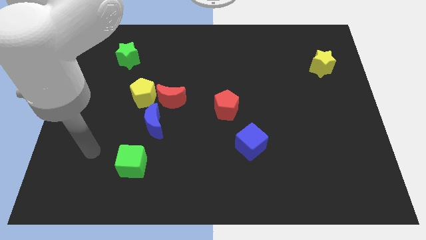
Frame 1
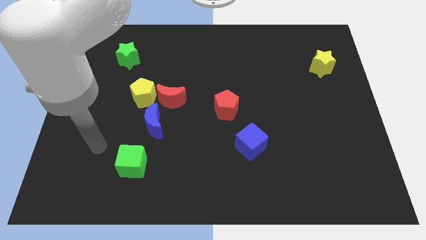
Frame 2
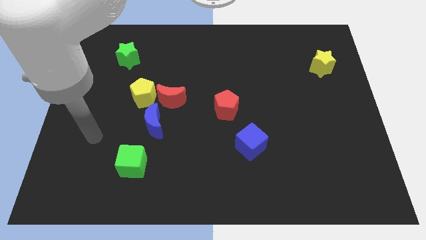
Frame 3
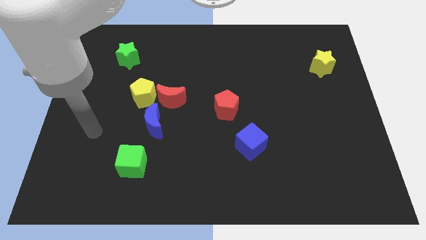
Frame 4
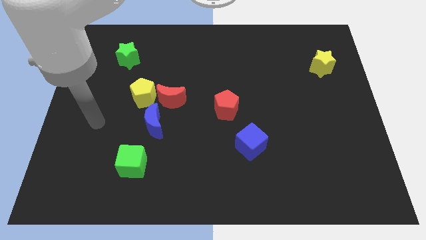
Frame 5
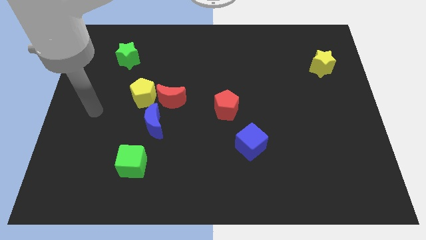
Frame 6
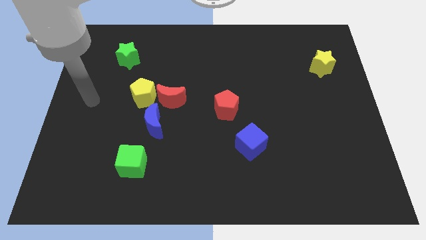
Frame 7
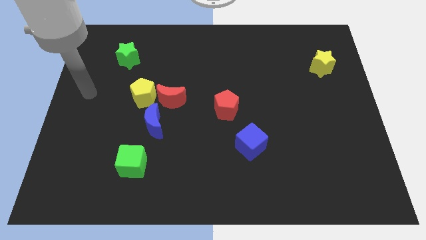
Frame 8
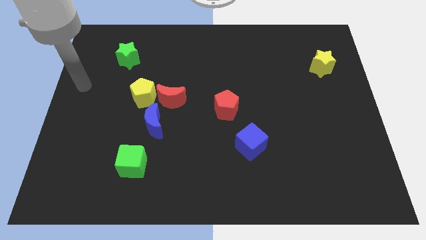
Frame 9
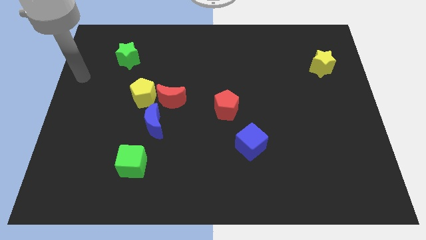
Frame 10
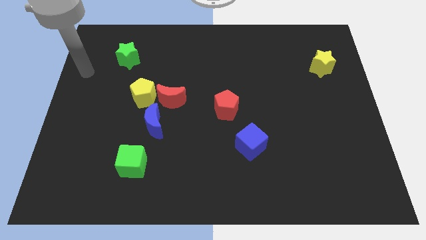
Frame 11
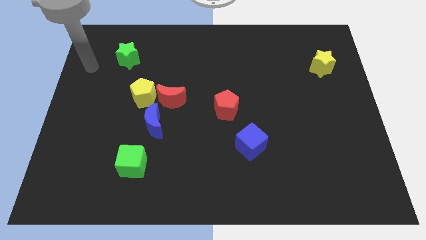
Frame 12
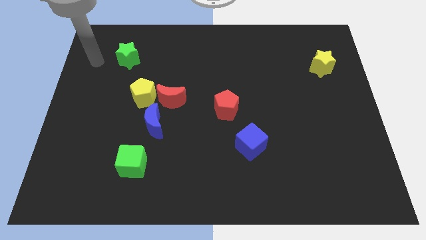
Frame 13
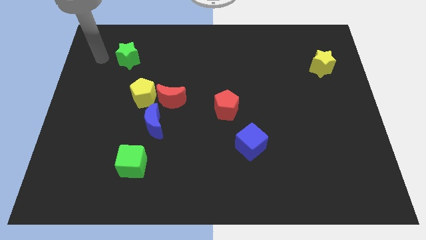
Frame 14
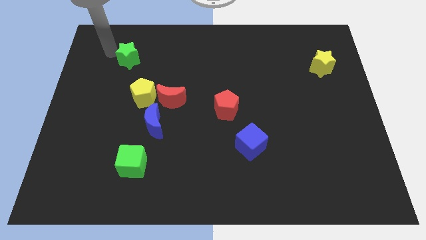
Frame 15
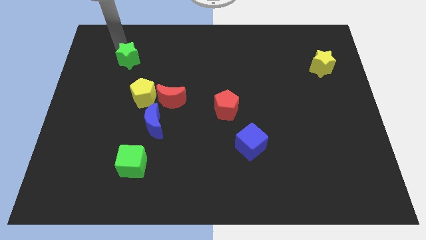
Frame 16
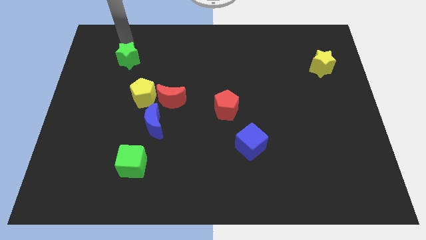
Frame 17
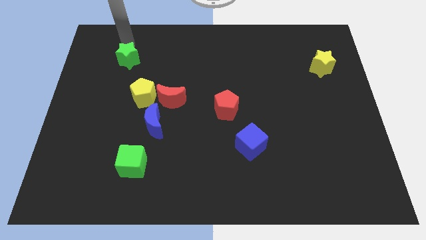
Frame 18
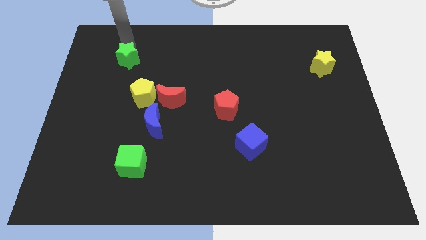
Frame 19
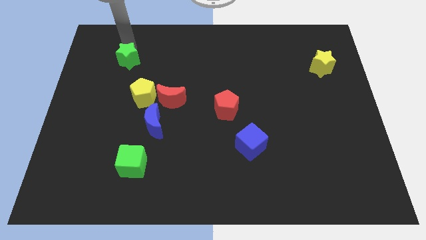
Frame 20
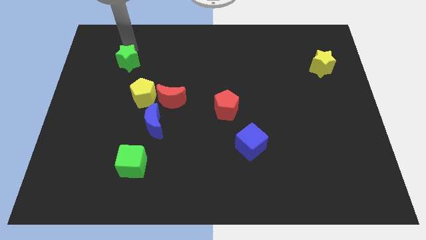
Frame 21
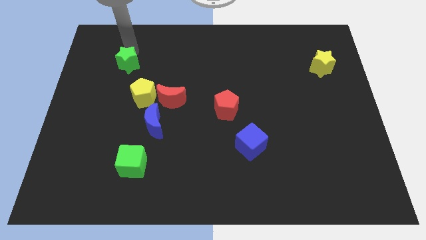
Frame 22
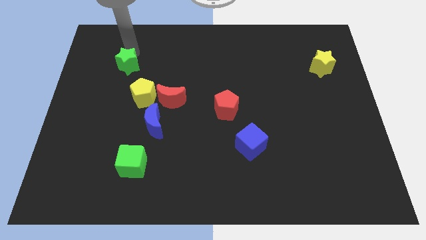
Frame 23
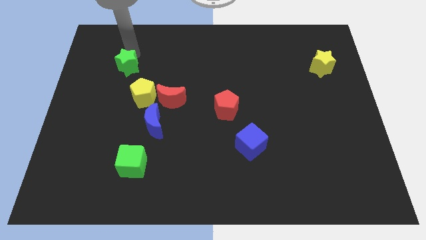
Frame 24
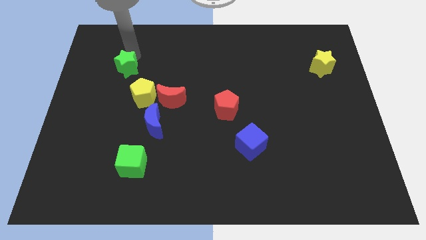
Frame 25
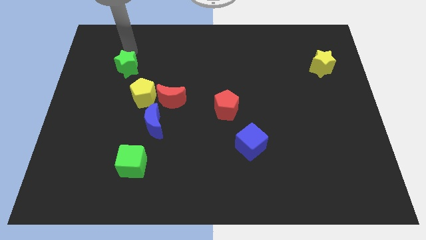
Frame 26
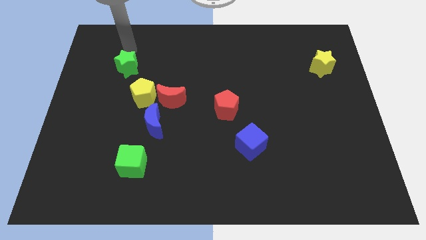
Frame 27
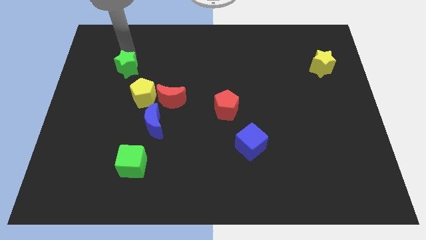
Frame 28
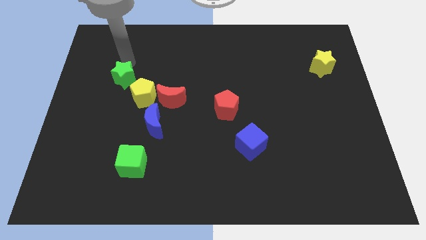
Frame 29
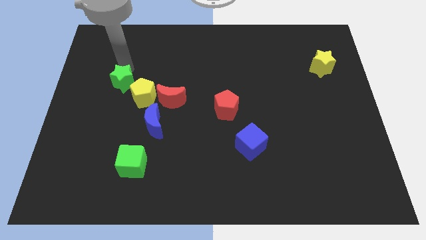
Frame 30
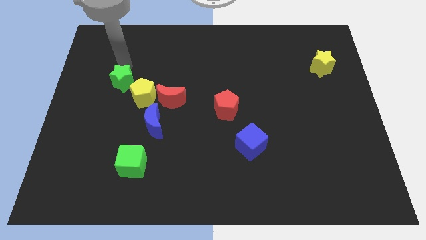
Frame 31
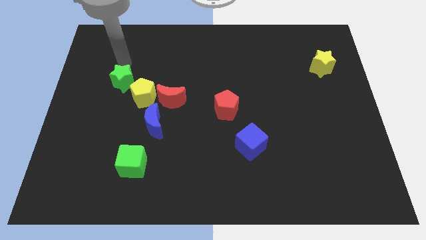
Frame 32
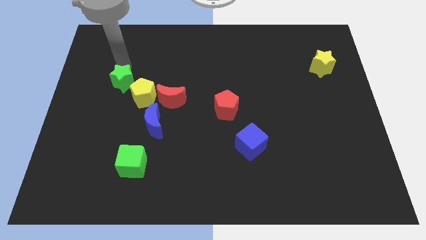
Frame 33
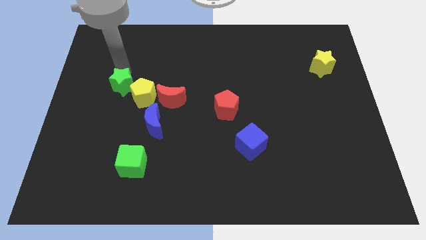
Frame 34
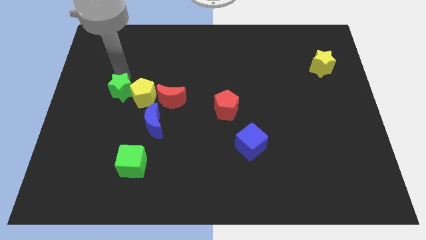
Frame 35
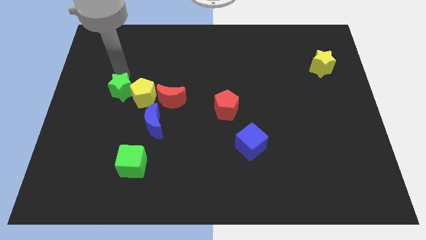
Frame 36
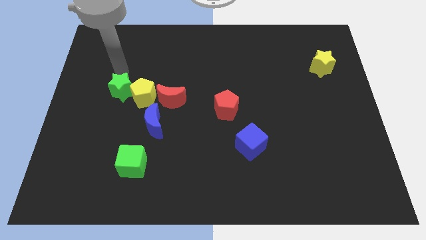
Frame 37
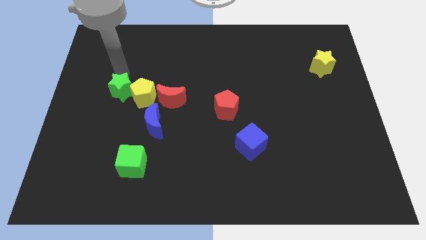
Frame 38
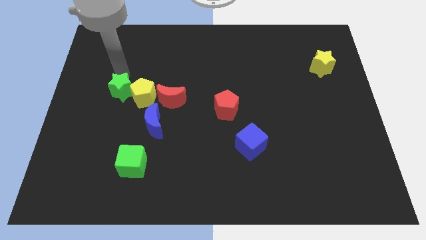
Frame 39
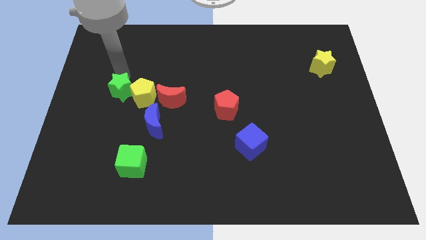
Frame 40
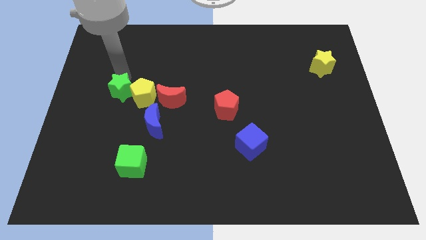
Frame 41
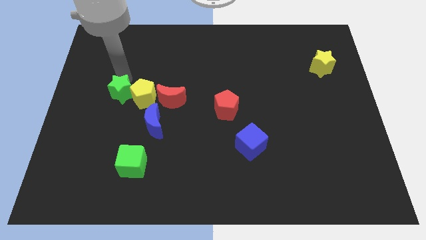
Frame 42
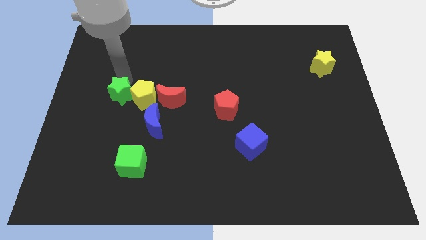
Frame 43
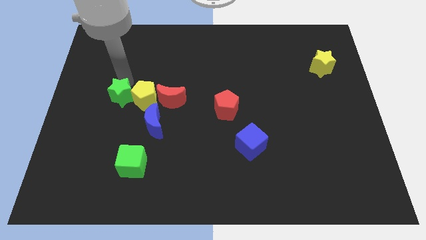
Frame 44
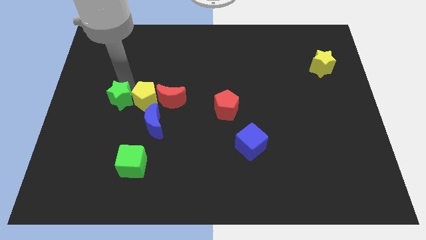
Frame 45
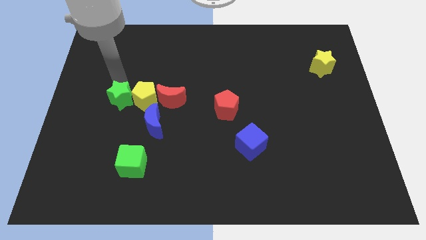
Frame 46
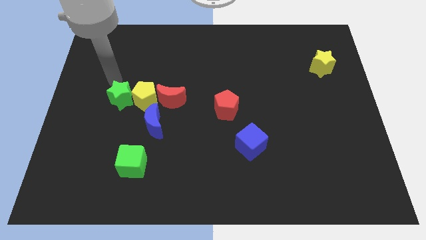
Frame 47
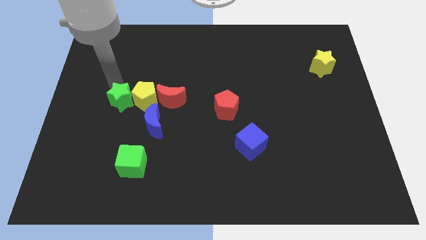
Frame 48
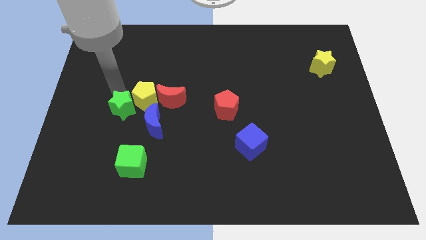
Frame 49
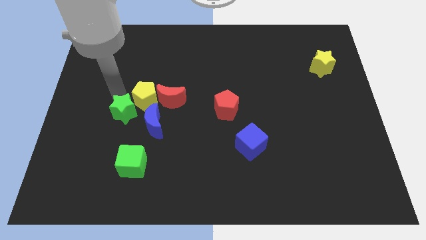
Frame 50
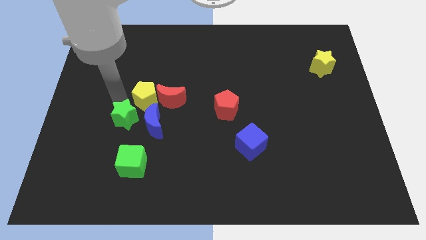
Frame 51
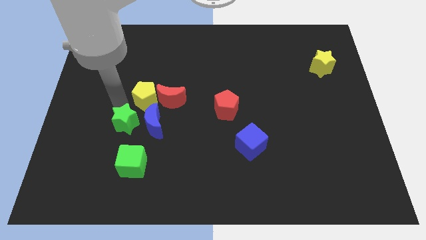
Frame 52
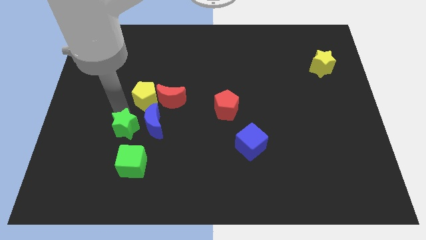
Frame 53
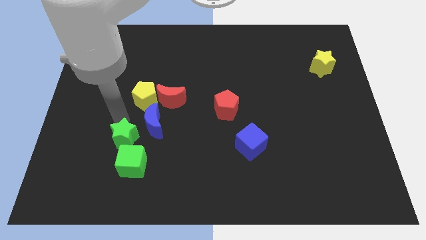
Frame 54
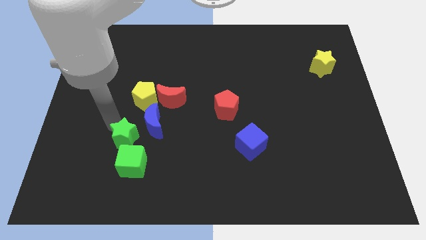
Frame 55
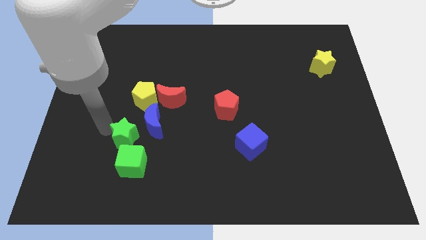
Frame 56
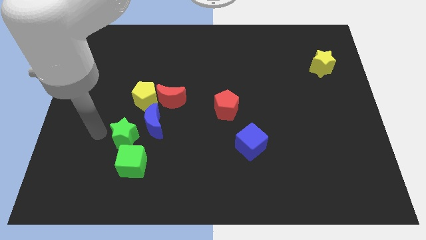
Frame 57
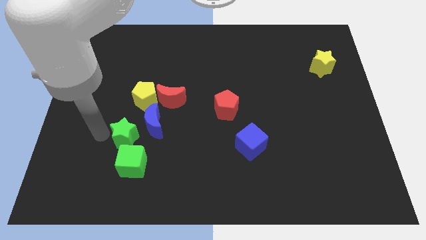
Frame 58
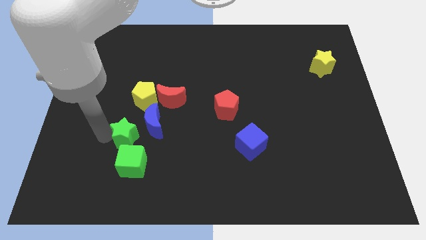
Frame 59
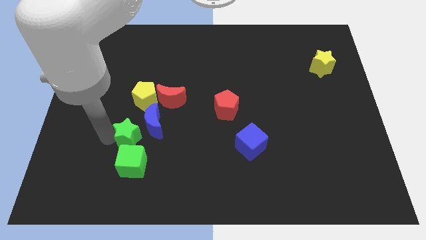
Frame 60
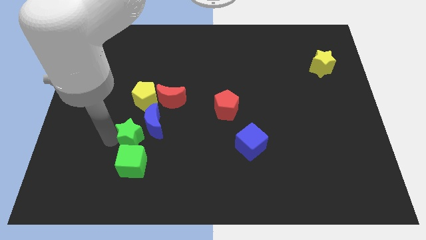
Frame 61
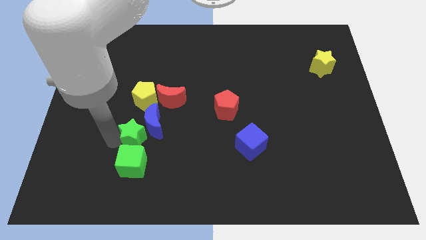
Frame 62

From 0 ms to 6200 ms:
push the green star to the top right side of the green cube

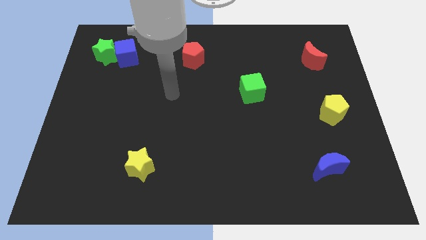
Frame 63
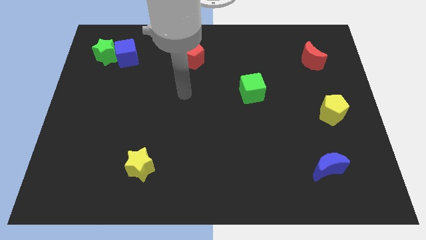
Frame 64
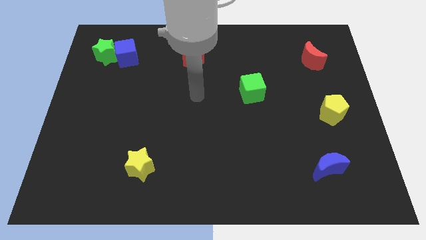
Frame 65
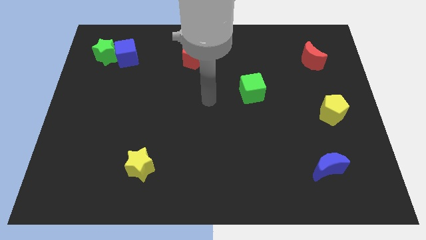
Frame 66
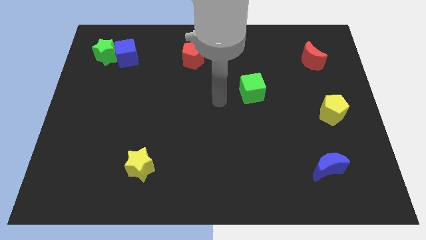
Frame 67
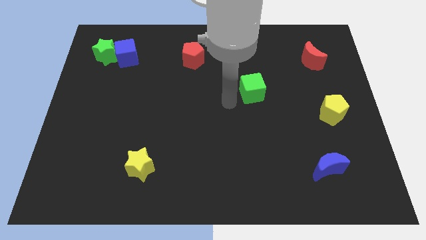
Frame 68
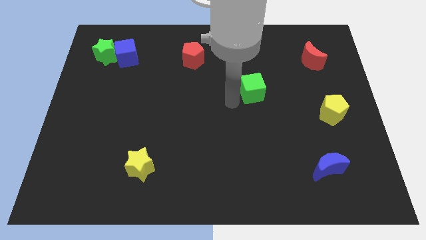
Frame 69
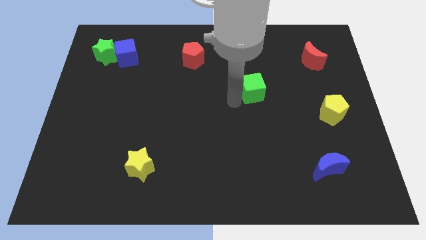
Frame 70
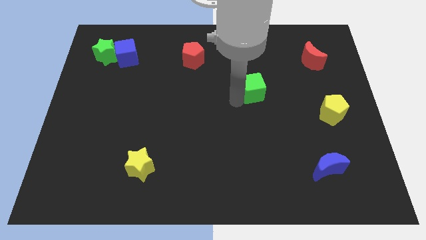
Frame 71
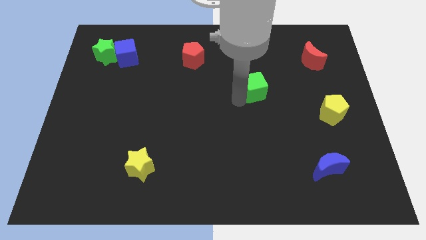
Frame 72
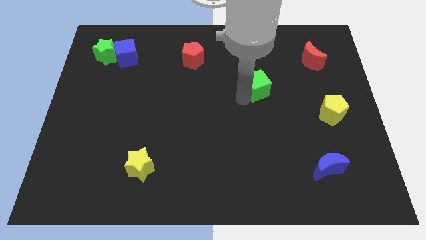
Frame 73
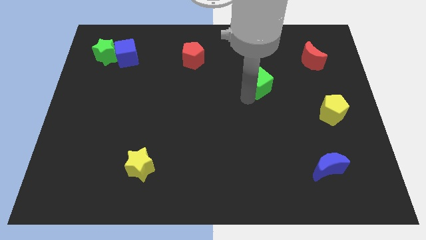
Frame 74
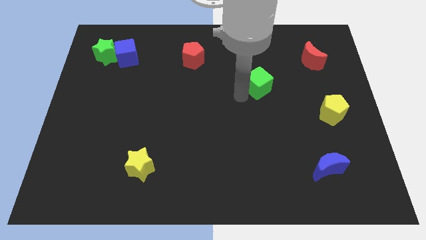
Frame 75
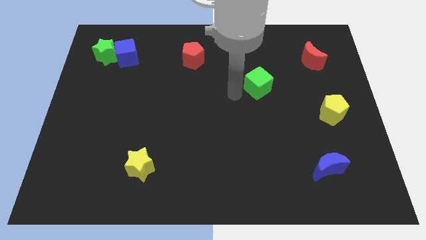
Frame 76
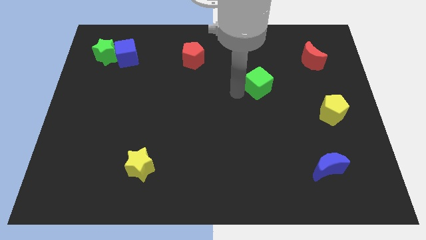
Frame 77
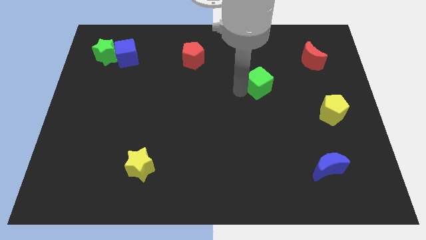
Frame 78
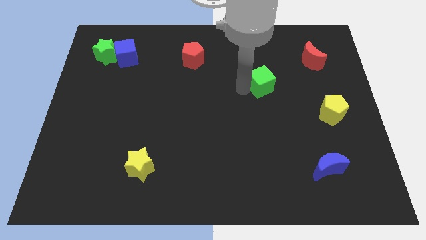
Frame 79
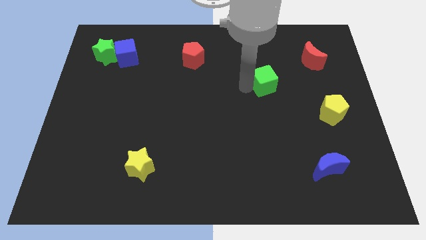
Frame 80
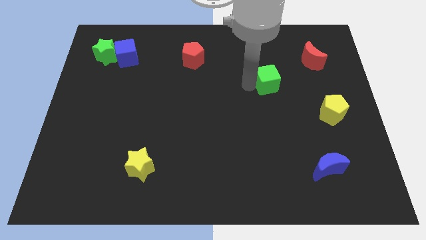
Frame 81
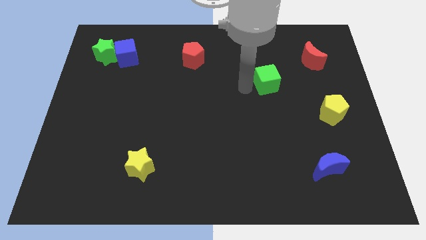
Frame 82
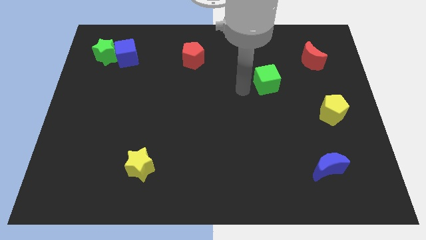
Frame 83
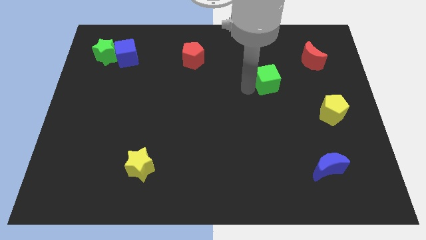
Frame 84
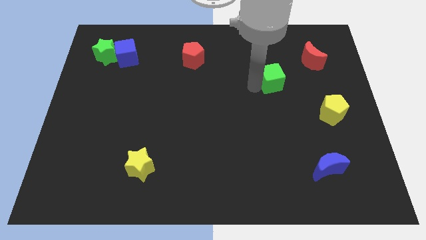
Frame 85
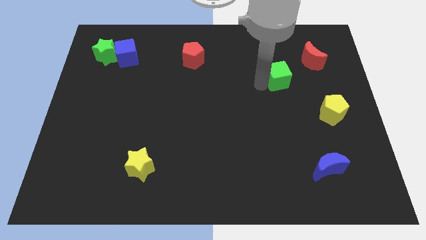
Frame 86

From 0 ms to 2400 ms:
put the green cube to the bottom left side of the red moon
